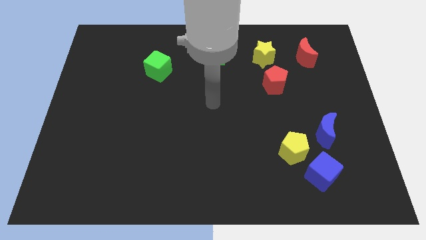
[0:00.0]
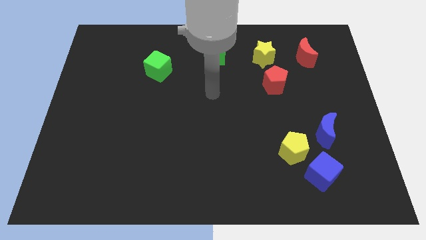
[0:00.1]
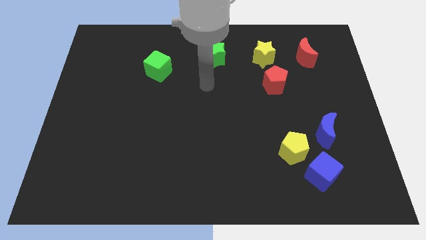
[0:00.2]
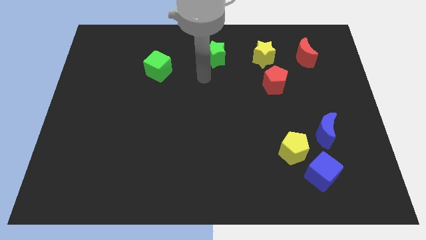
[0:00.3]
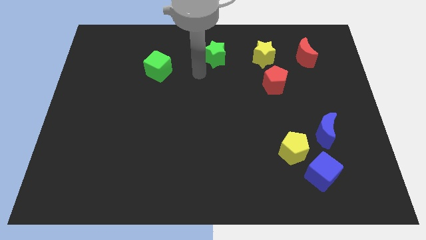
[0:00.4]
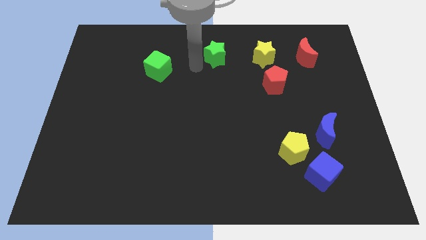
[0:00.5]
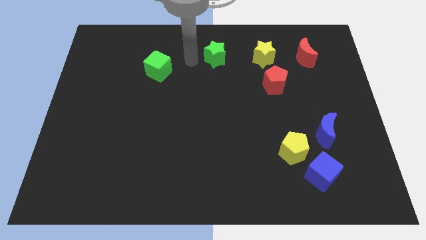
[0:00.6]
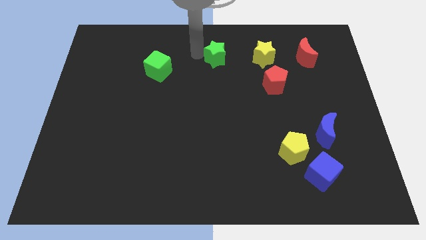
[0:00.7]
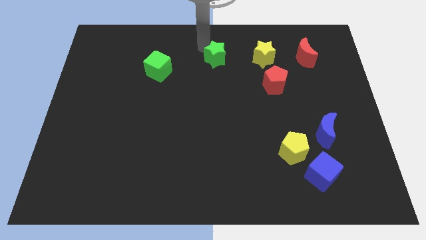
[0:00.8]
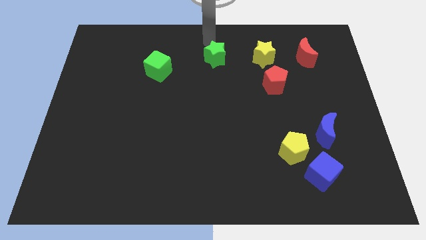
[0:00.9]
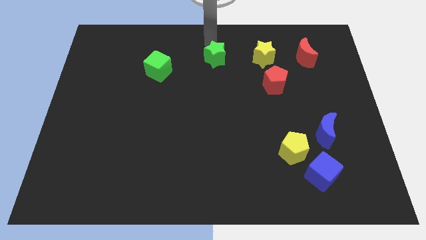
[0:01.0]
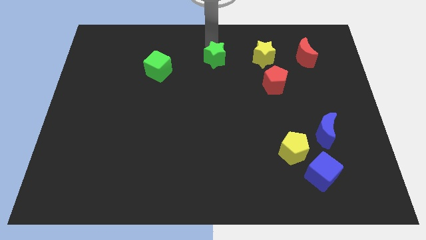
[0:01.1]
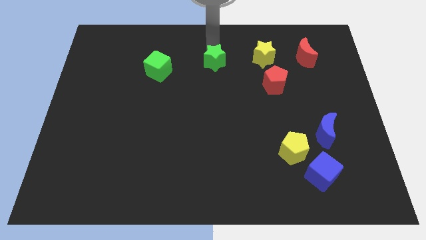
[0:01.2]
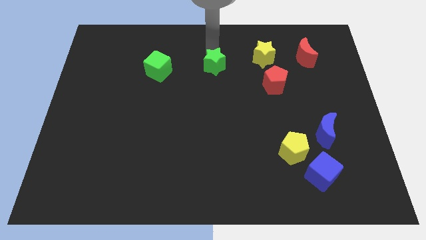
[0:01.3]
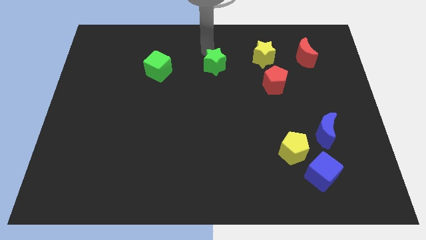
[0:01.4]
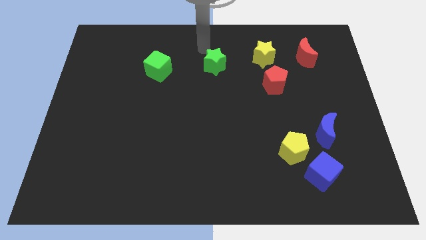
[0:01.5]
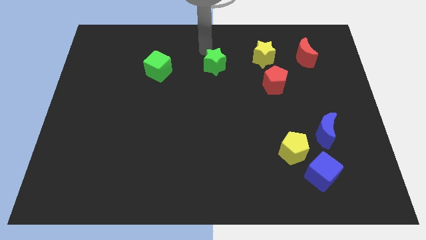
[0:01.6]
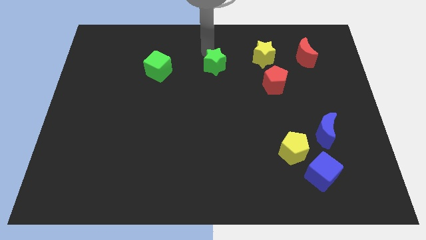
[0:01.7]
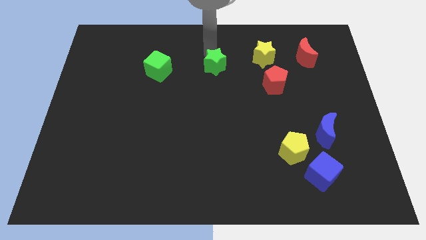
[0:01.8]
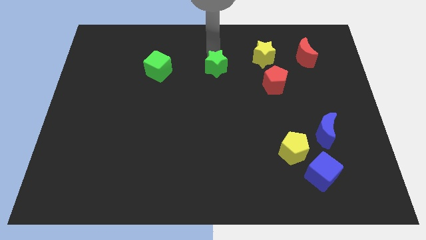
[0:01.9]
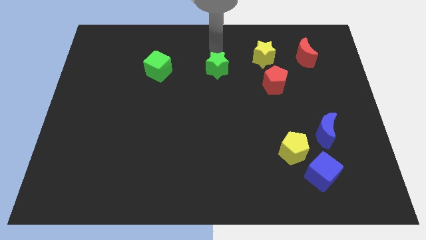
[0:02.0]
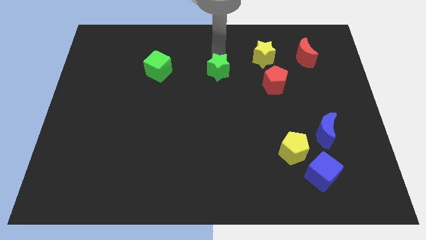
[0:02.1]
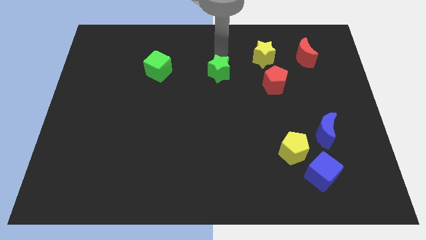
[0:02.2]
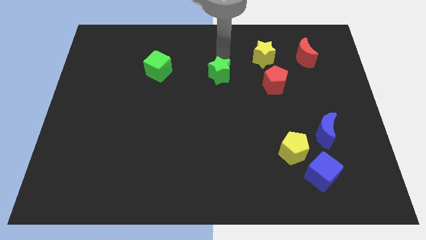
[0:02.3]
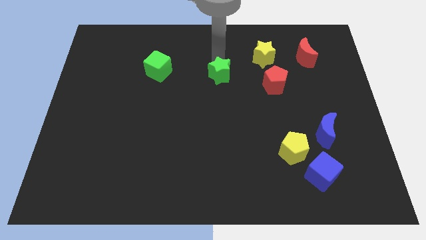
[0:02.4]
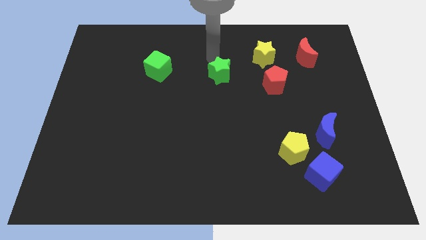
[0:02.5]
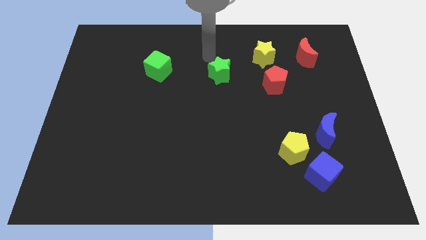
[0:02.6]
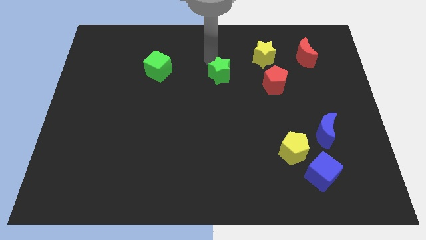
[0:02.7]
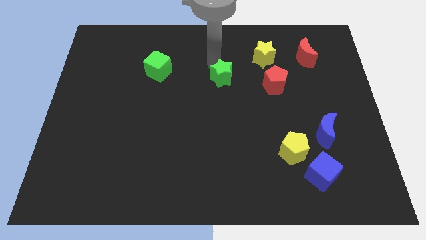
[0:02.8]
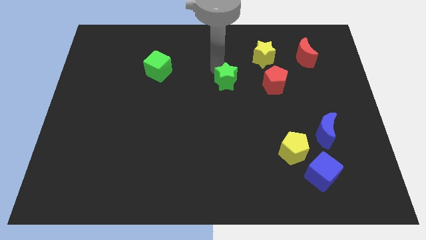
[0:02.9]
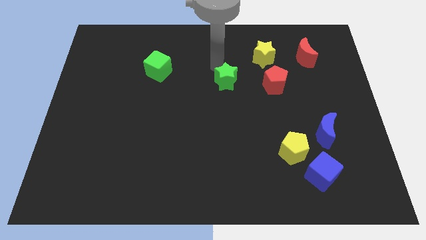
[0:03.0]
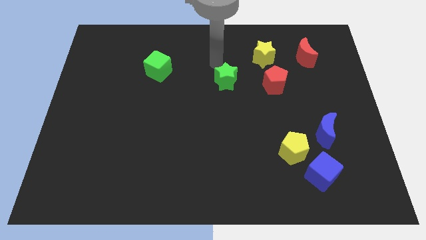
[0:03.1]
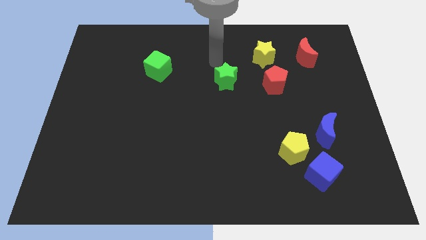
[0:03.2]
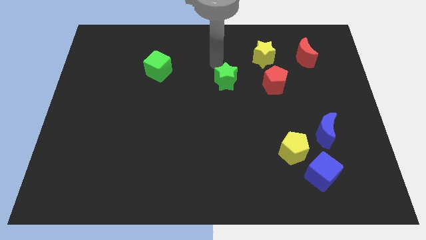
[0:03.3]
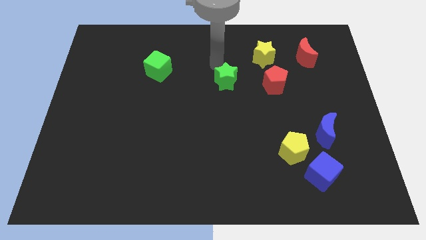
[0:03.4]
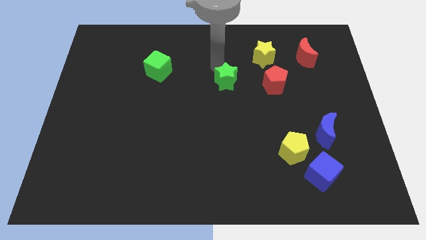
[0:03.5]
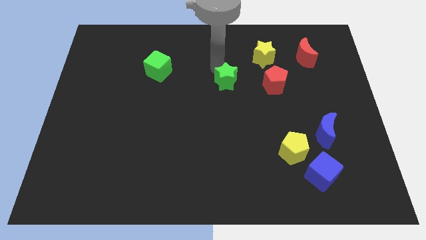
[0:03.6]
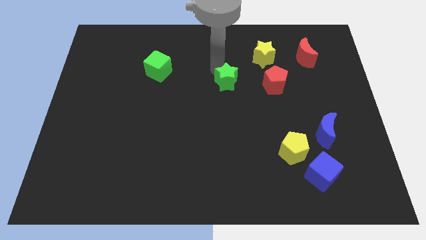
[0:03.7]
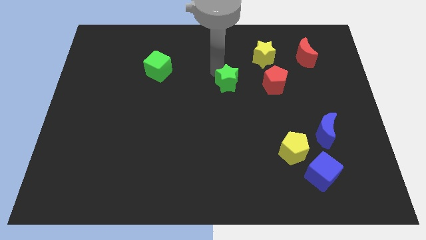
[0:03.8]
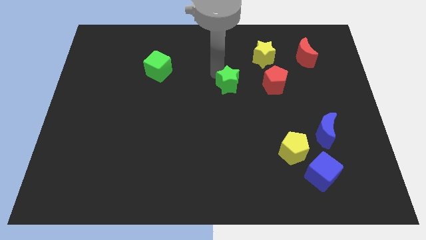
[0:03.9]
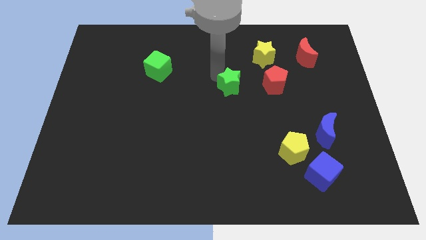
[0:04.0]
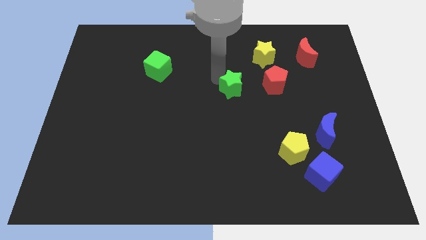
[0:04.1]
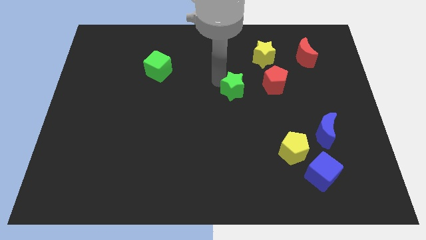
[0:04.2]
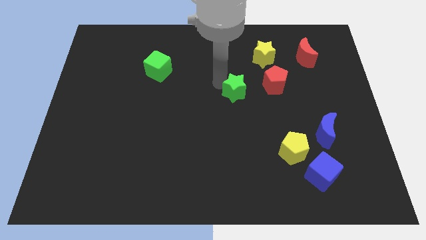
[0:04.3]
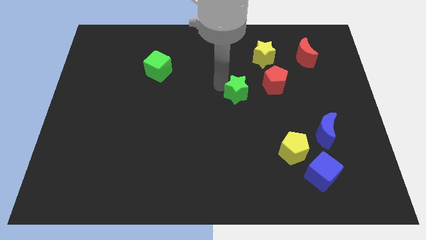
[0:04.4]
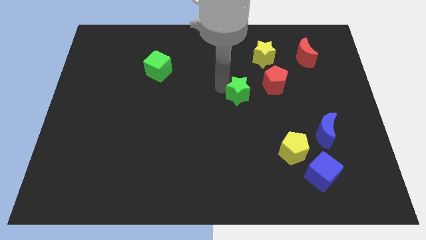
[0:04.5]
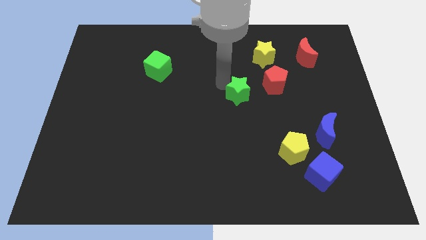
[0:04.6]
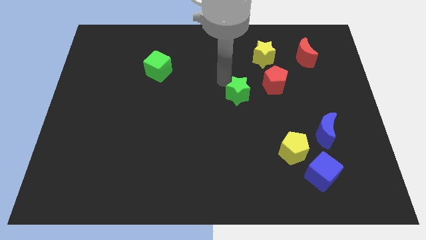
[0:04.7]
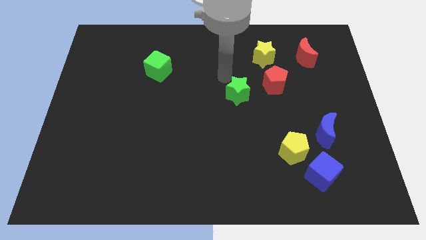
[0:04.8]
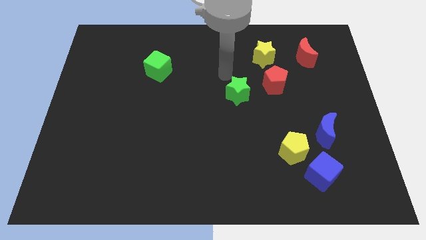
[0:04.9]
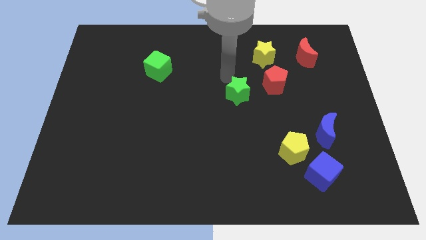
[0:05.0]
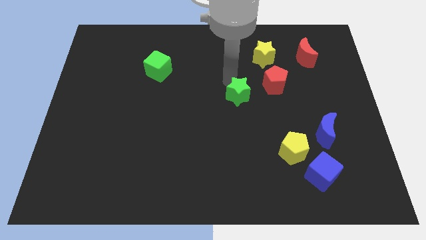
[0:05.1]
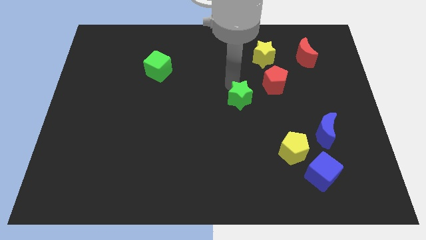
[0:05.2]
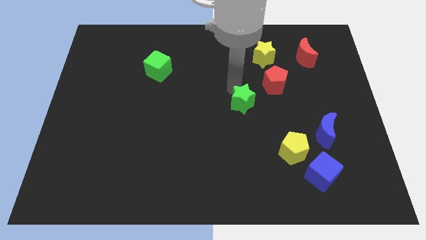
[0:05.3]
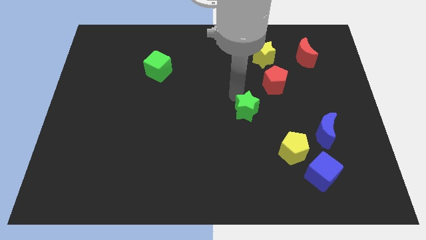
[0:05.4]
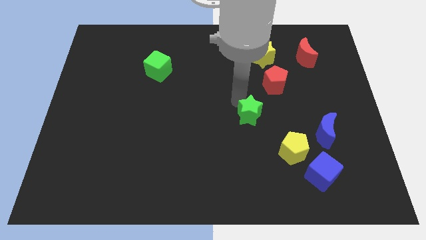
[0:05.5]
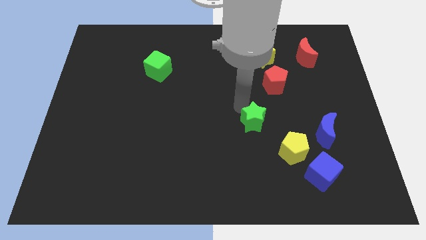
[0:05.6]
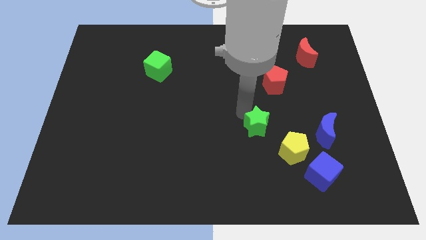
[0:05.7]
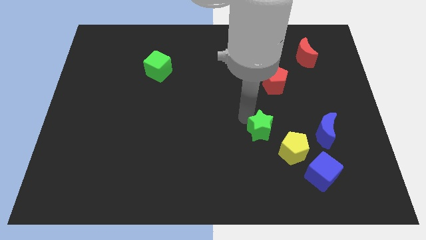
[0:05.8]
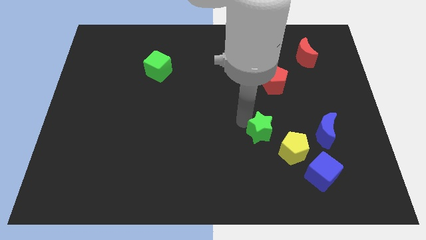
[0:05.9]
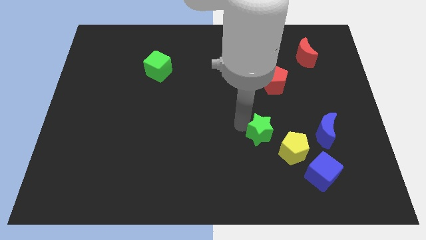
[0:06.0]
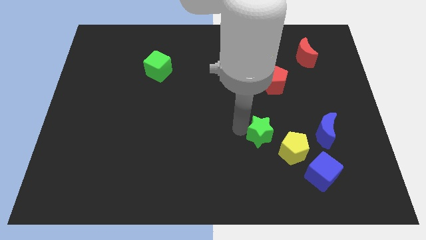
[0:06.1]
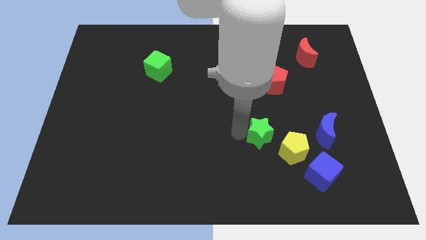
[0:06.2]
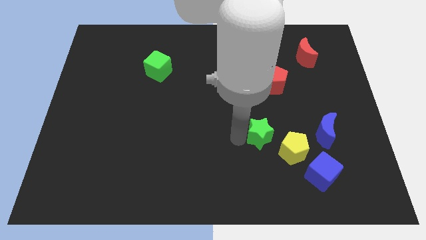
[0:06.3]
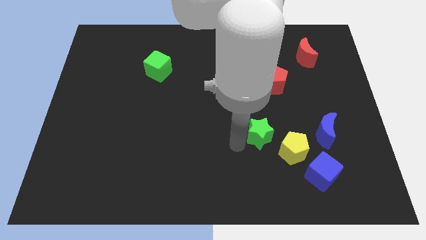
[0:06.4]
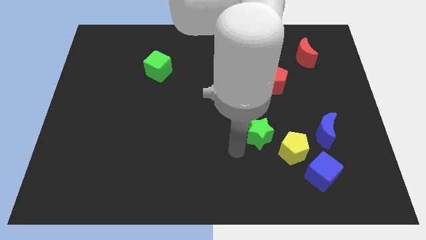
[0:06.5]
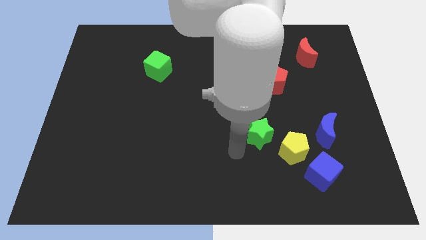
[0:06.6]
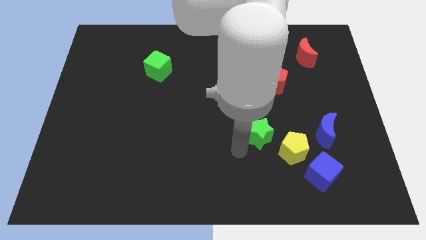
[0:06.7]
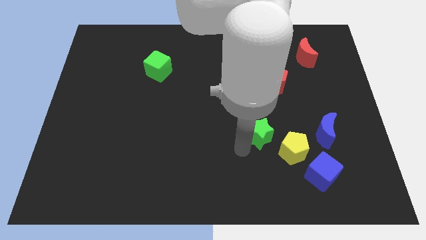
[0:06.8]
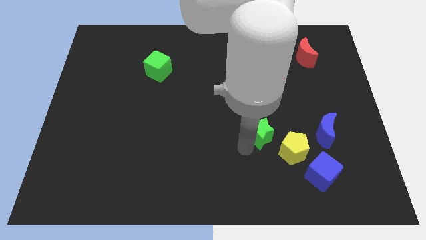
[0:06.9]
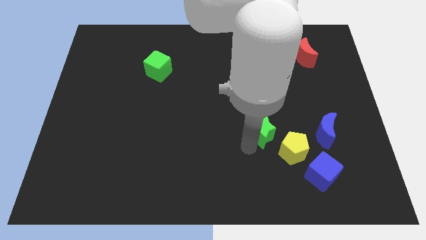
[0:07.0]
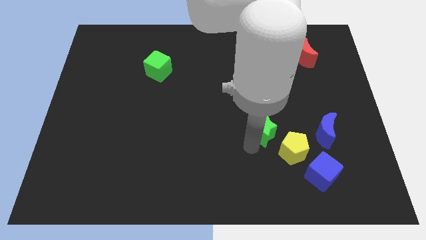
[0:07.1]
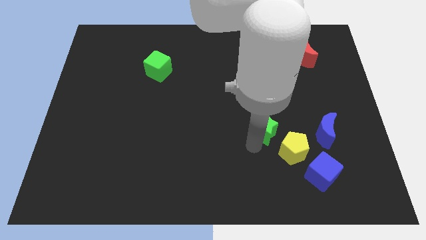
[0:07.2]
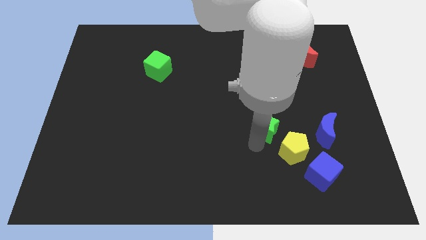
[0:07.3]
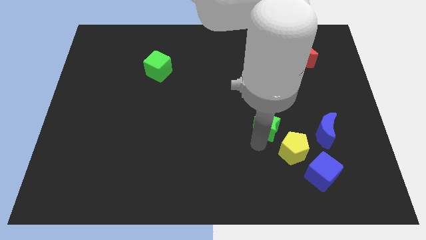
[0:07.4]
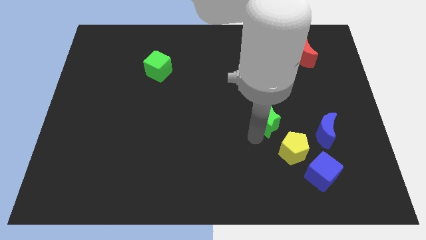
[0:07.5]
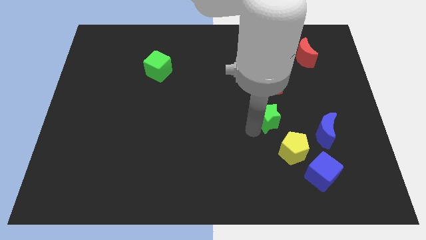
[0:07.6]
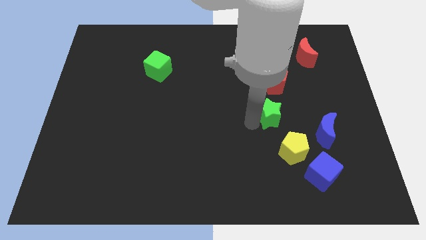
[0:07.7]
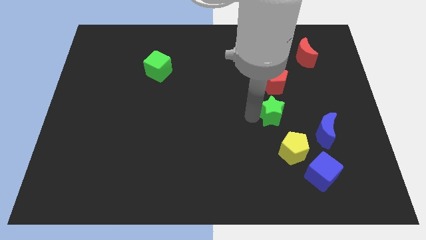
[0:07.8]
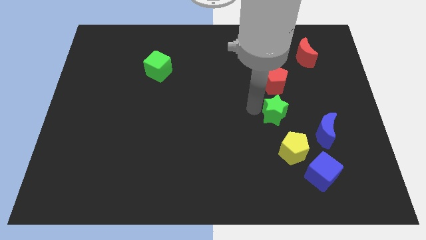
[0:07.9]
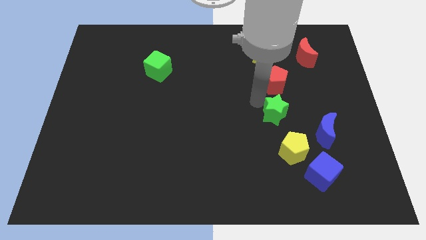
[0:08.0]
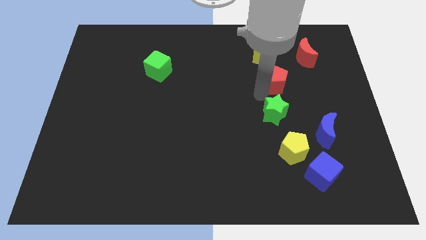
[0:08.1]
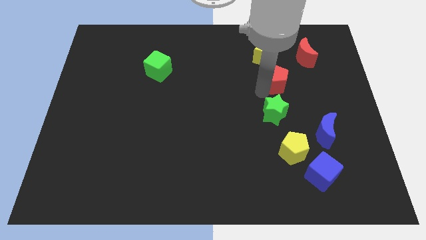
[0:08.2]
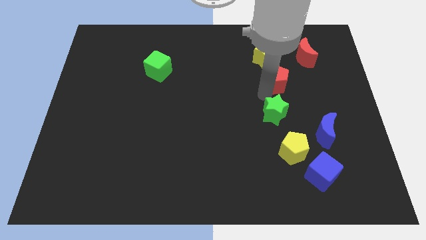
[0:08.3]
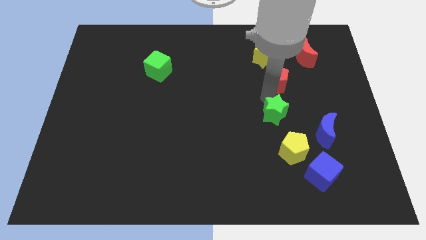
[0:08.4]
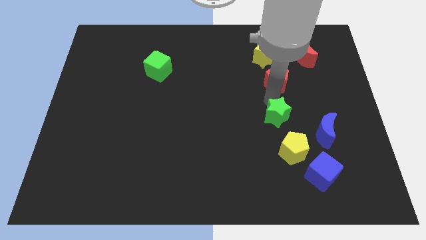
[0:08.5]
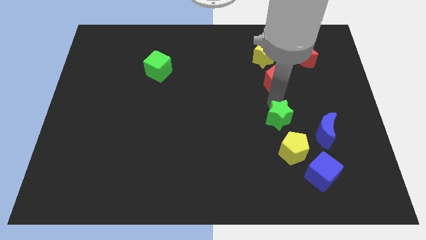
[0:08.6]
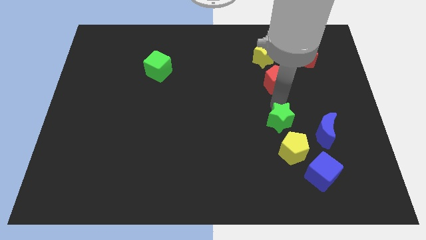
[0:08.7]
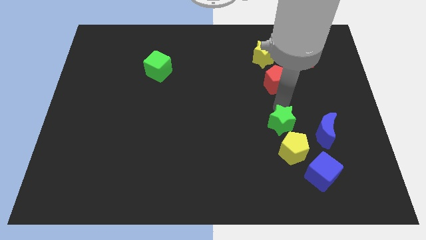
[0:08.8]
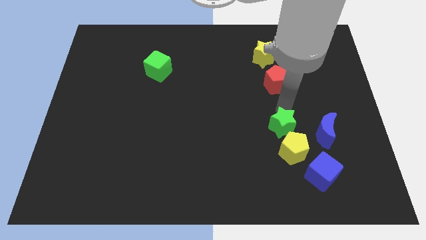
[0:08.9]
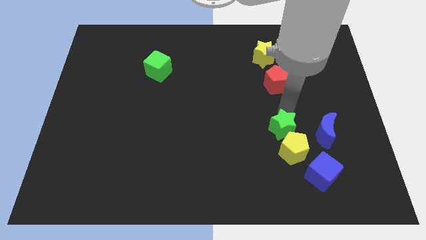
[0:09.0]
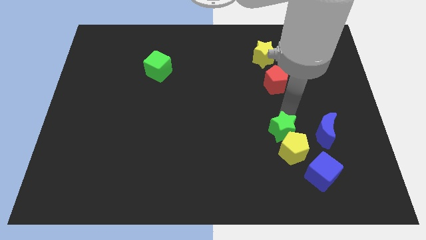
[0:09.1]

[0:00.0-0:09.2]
slide the green star next to the yellow pentagon
